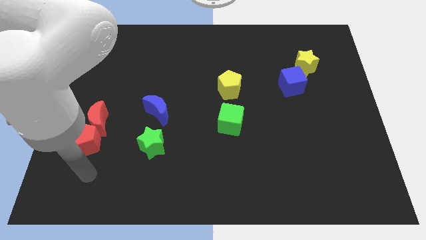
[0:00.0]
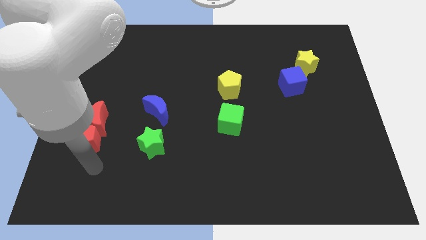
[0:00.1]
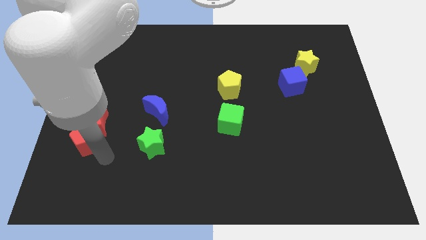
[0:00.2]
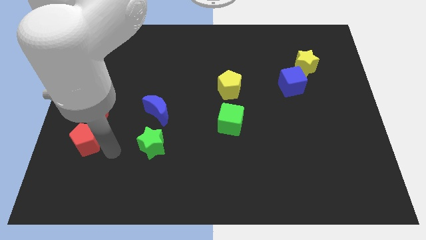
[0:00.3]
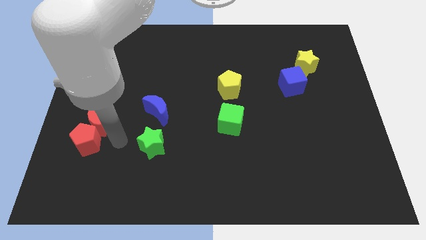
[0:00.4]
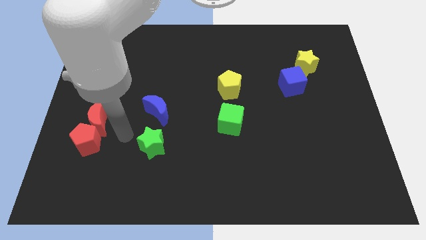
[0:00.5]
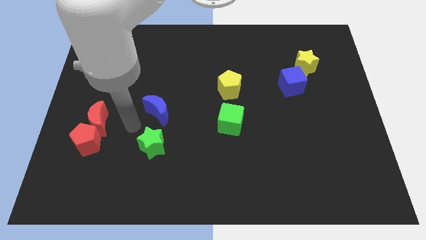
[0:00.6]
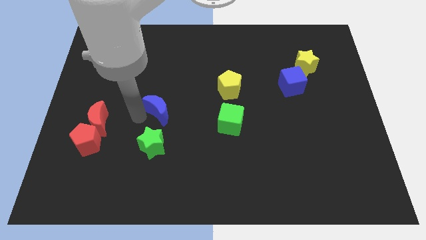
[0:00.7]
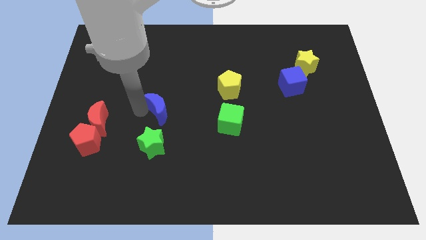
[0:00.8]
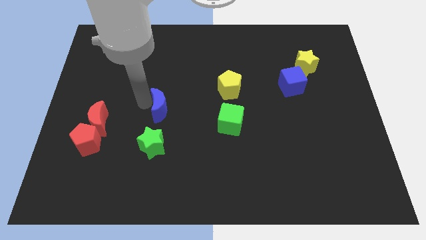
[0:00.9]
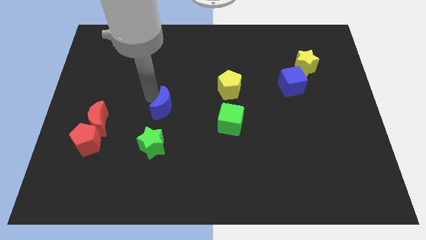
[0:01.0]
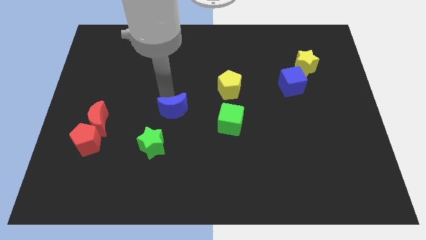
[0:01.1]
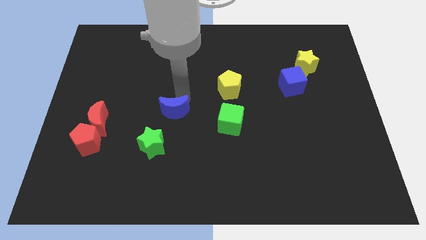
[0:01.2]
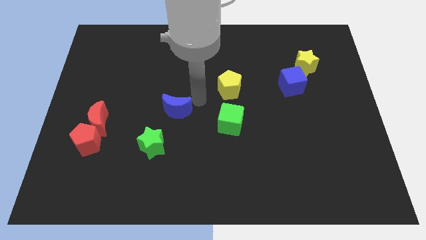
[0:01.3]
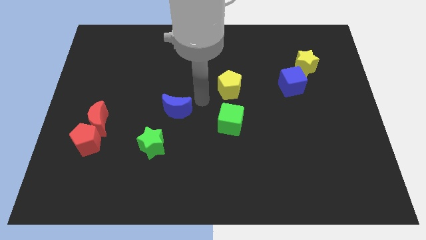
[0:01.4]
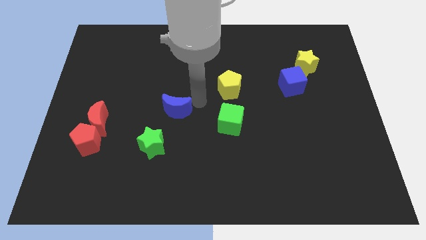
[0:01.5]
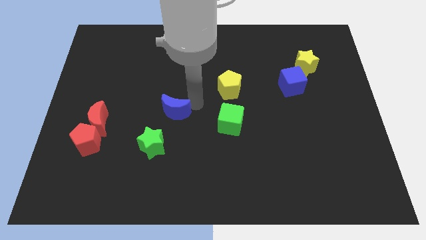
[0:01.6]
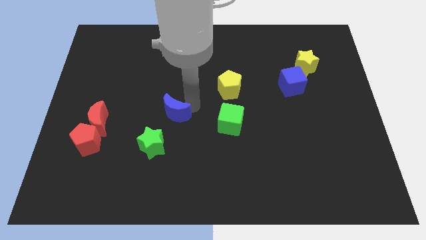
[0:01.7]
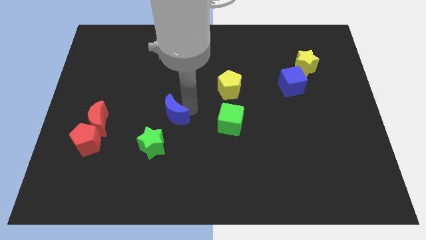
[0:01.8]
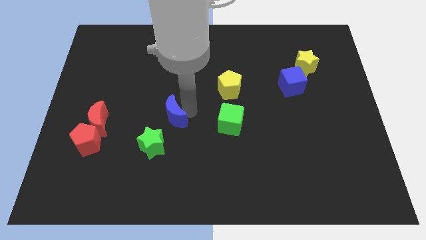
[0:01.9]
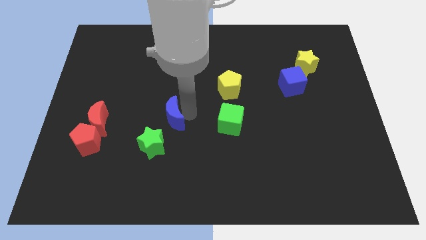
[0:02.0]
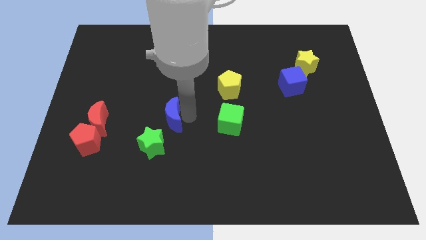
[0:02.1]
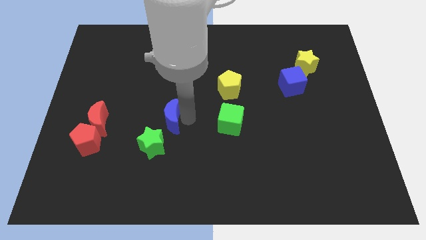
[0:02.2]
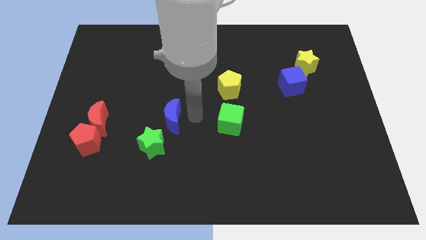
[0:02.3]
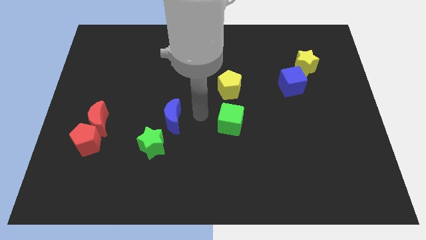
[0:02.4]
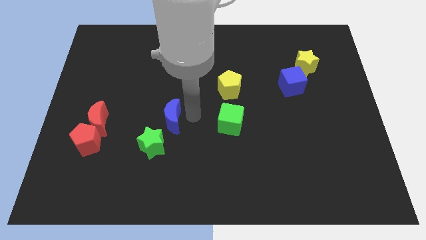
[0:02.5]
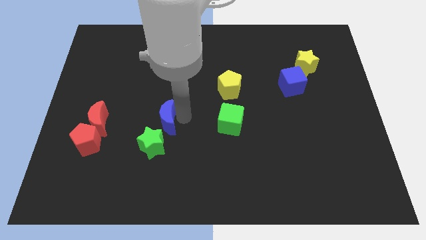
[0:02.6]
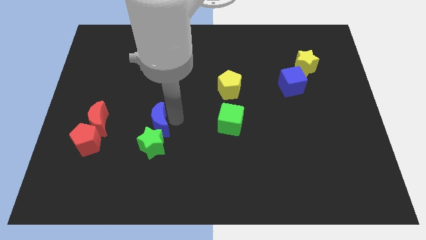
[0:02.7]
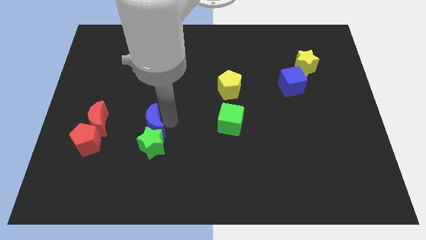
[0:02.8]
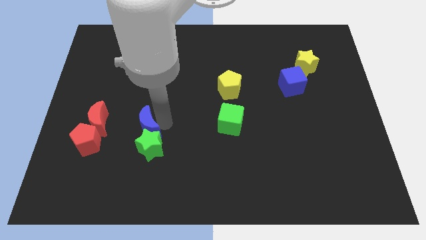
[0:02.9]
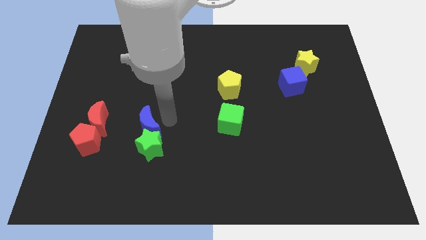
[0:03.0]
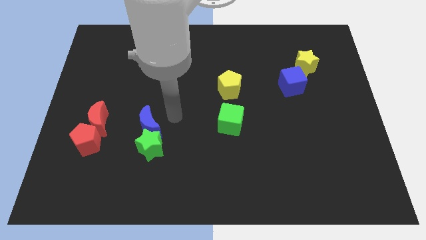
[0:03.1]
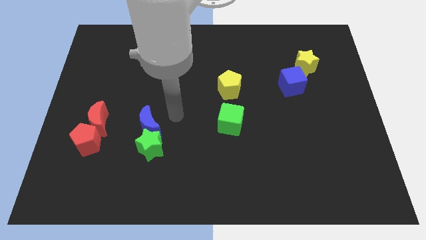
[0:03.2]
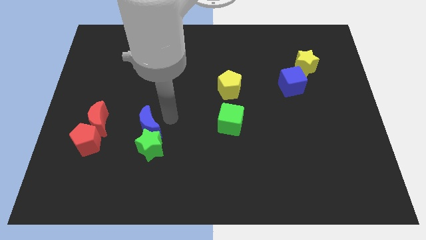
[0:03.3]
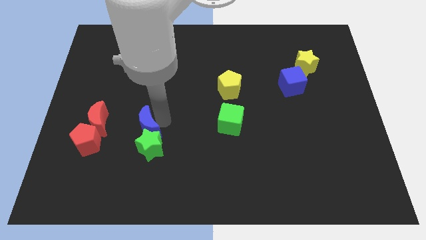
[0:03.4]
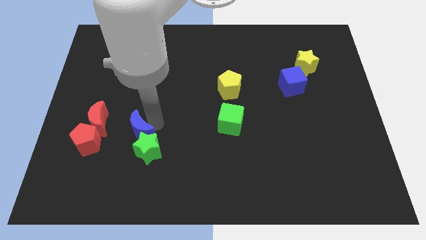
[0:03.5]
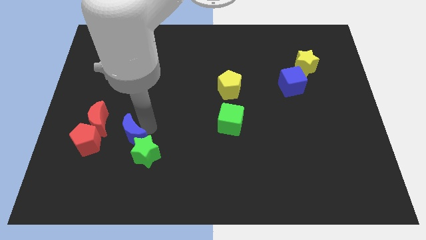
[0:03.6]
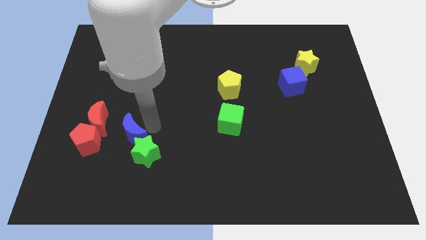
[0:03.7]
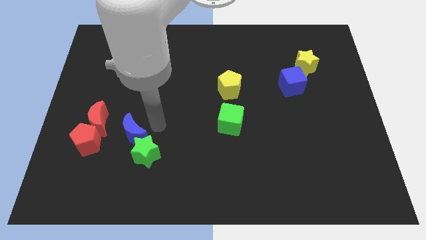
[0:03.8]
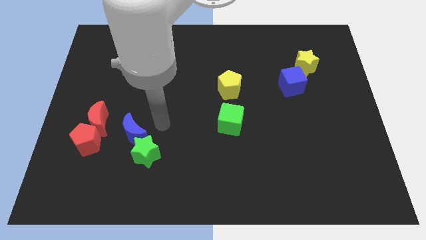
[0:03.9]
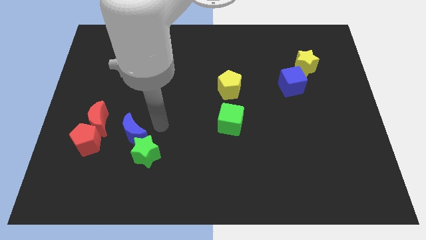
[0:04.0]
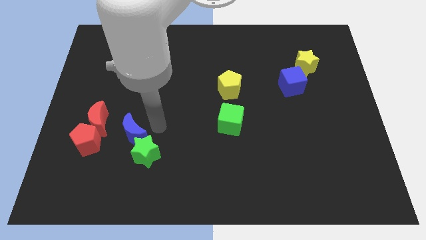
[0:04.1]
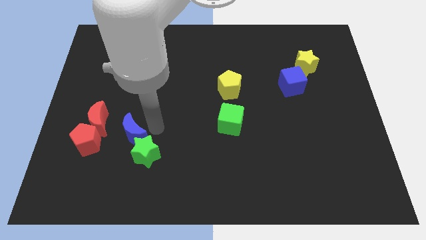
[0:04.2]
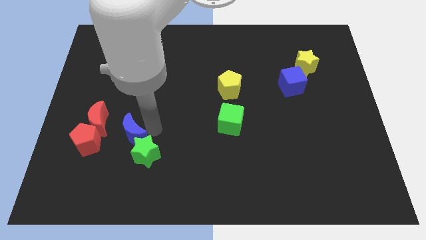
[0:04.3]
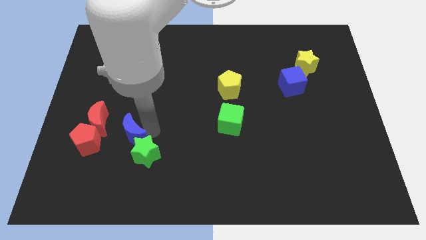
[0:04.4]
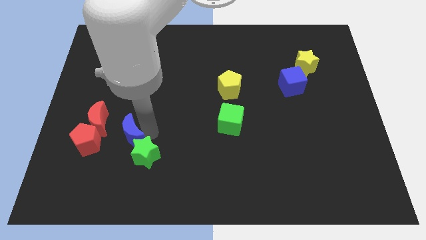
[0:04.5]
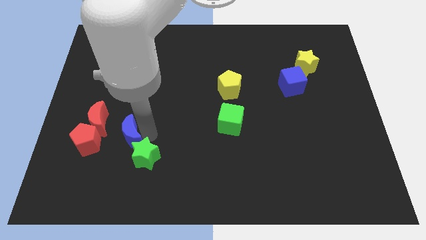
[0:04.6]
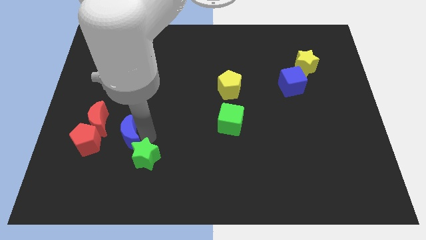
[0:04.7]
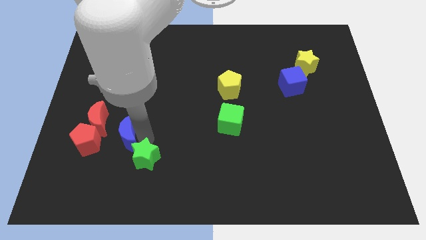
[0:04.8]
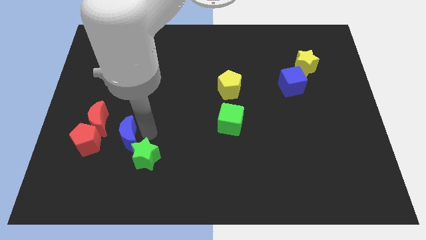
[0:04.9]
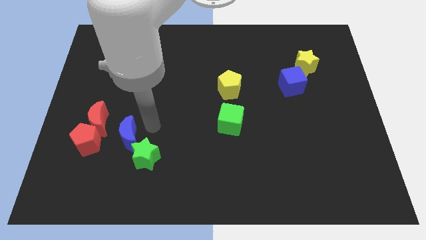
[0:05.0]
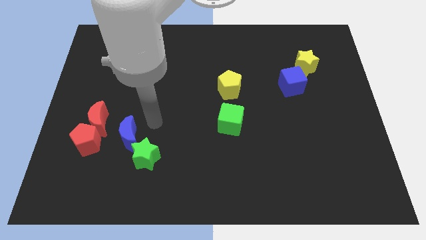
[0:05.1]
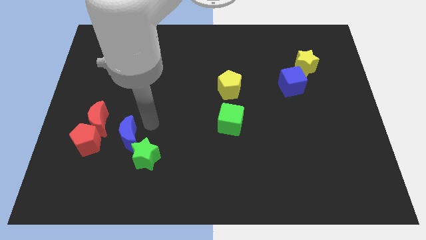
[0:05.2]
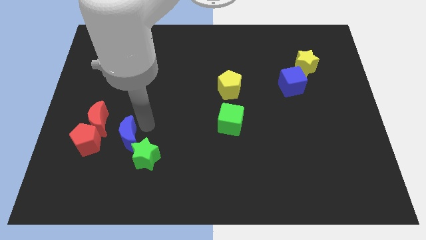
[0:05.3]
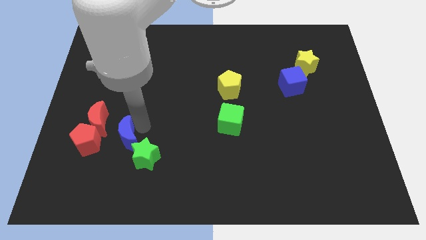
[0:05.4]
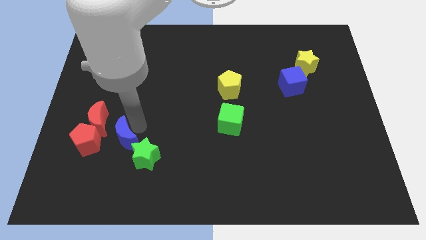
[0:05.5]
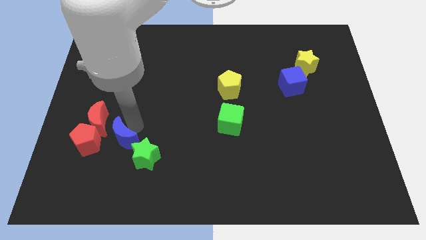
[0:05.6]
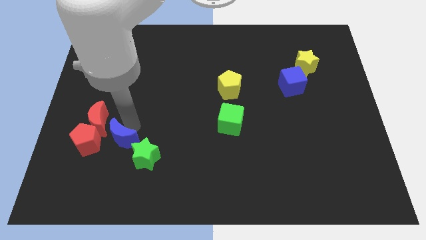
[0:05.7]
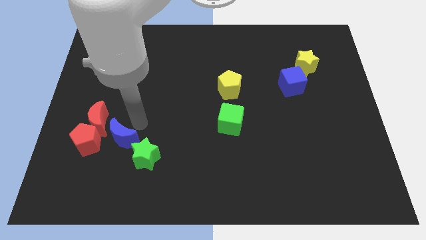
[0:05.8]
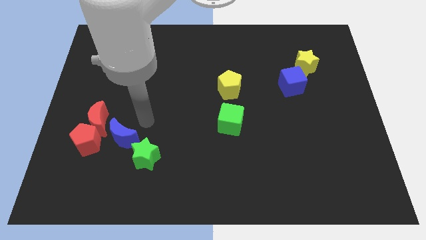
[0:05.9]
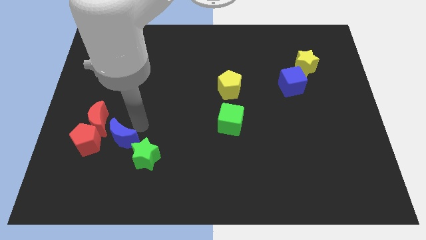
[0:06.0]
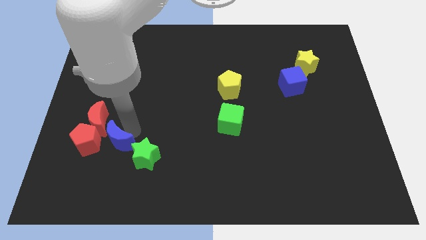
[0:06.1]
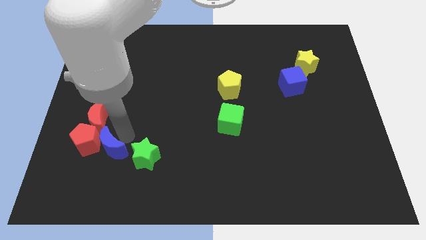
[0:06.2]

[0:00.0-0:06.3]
slide the blue moon below the red moon
